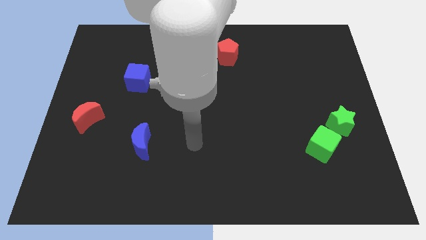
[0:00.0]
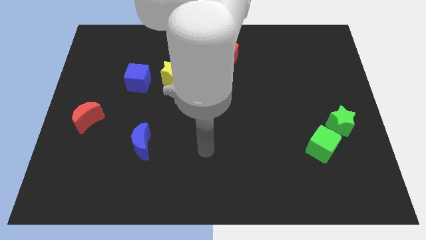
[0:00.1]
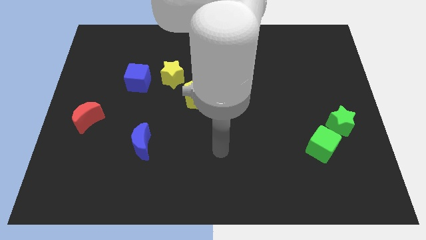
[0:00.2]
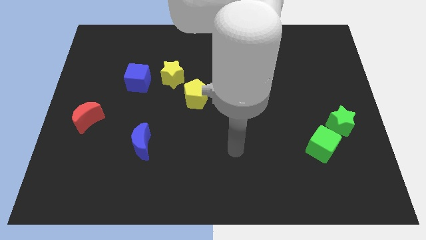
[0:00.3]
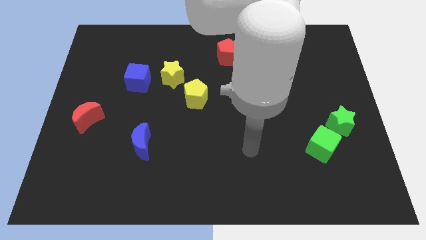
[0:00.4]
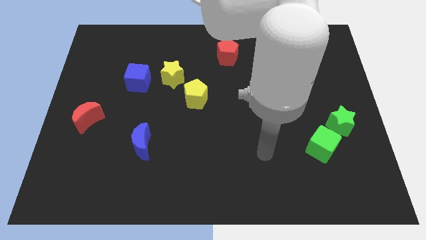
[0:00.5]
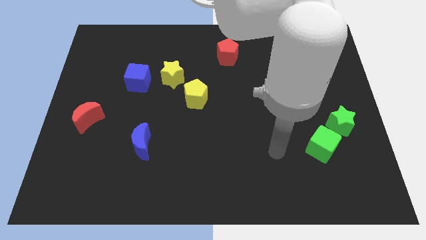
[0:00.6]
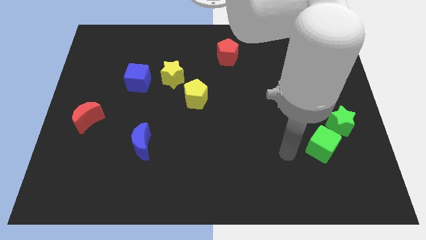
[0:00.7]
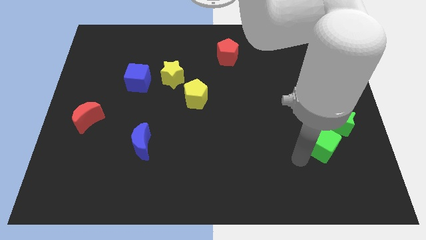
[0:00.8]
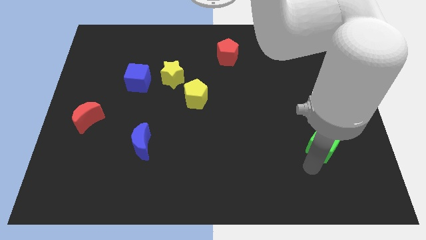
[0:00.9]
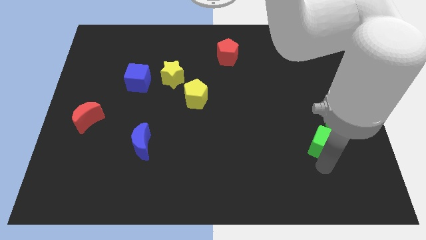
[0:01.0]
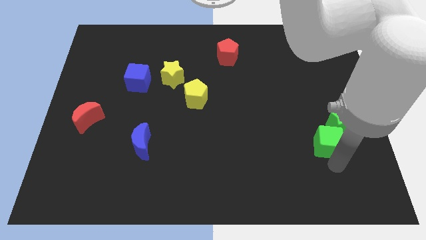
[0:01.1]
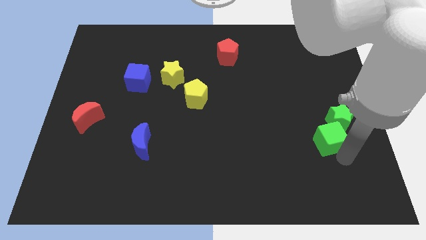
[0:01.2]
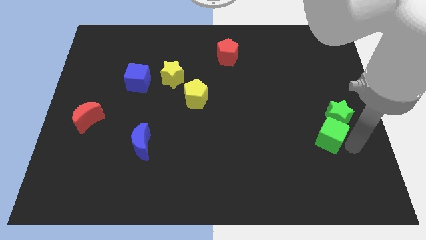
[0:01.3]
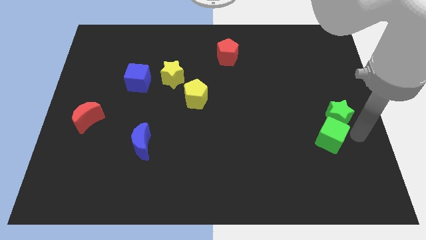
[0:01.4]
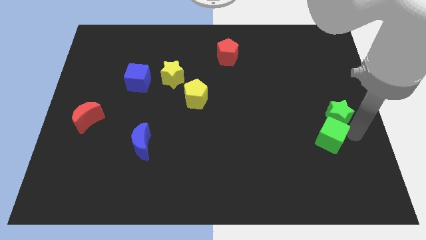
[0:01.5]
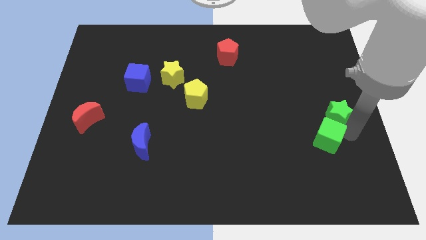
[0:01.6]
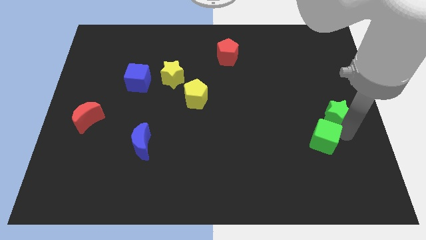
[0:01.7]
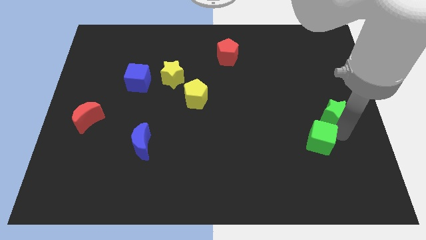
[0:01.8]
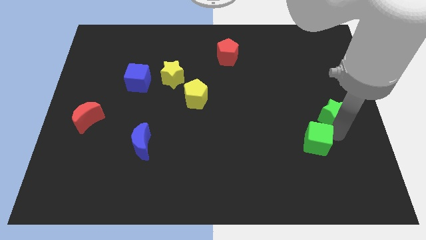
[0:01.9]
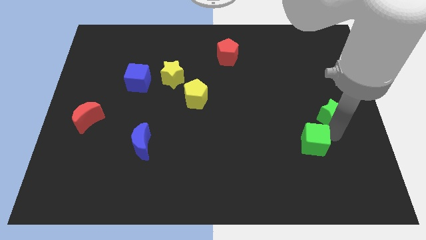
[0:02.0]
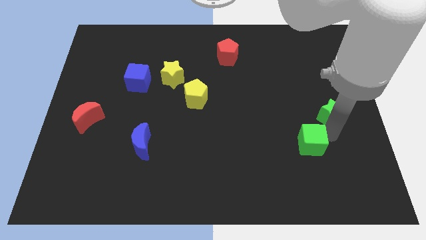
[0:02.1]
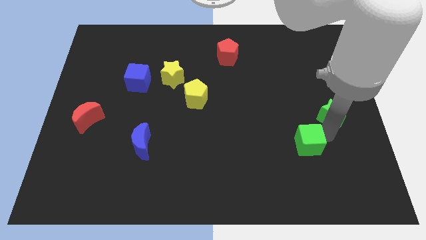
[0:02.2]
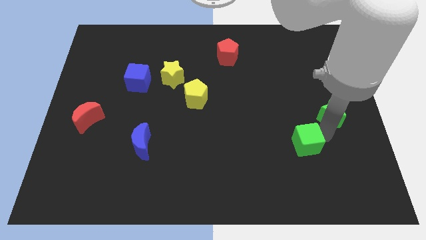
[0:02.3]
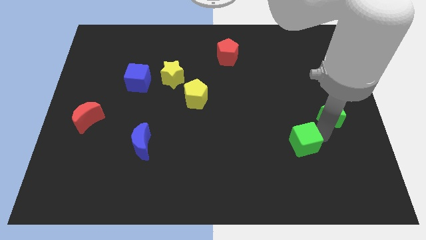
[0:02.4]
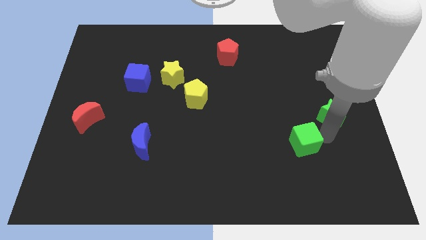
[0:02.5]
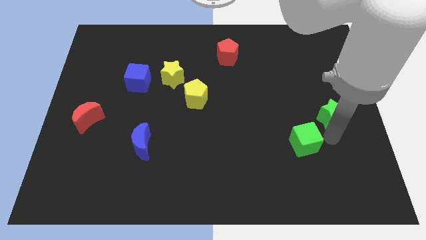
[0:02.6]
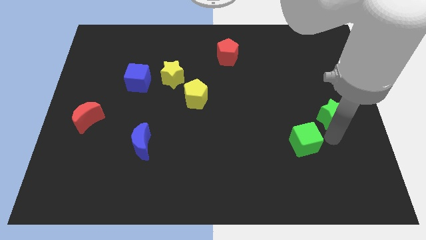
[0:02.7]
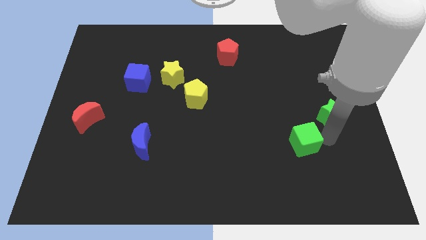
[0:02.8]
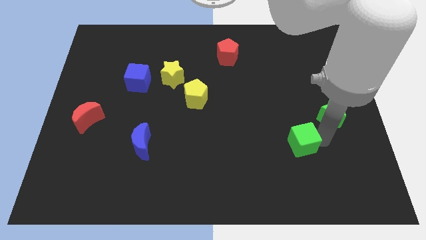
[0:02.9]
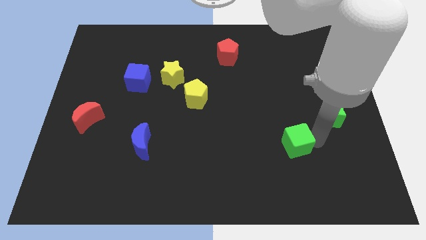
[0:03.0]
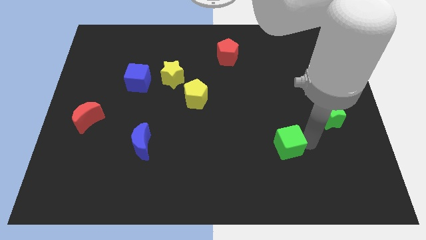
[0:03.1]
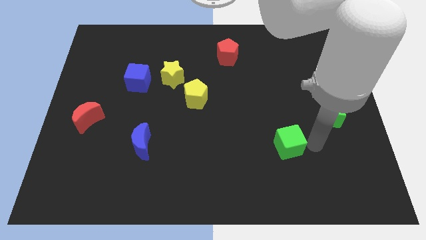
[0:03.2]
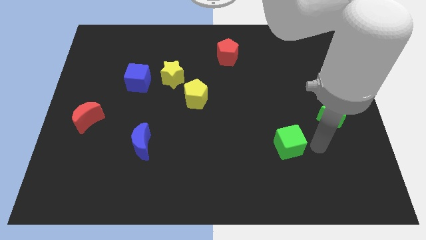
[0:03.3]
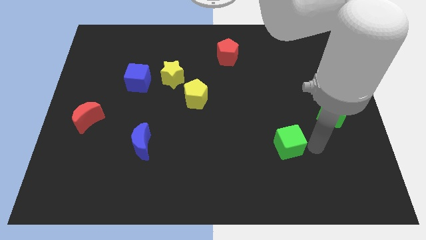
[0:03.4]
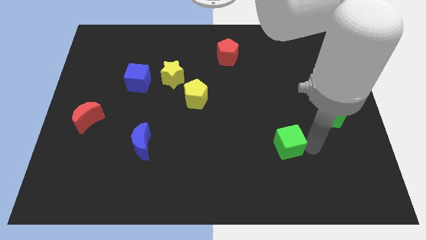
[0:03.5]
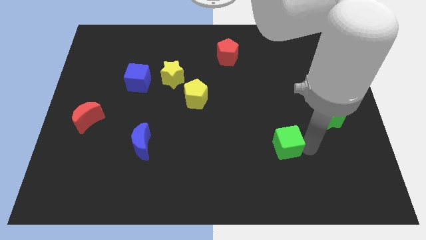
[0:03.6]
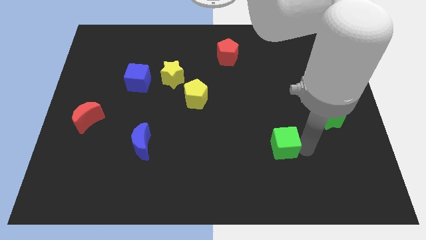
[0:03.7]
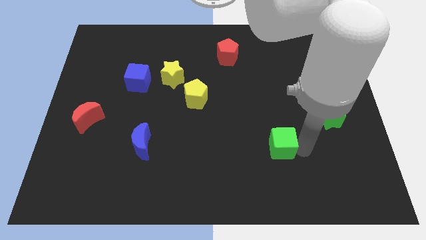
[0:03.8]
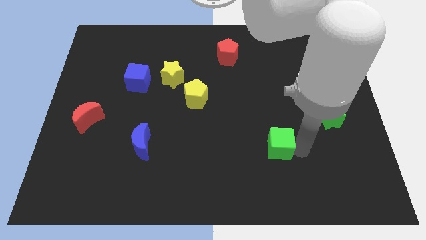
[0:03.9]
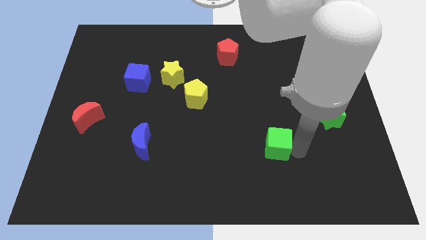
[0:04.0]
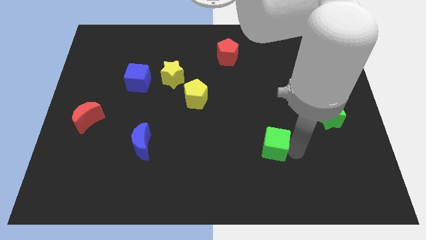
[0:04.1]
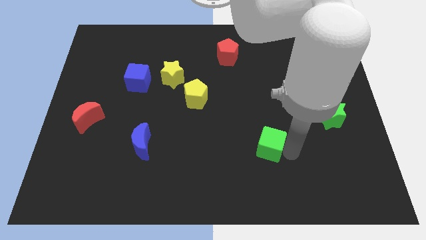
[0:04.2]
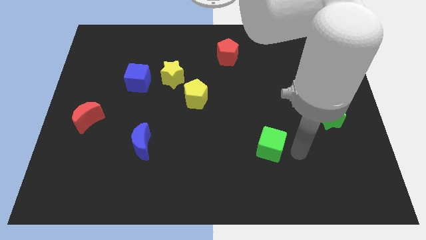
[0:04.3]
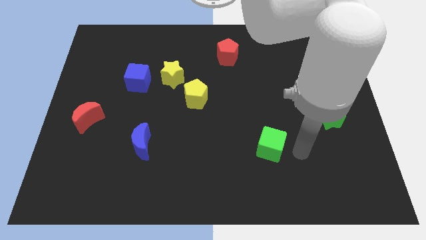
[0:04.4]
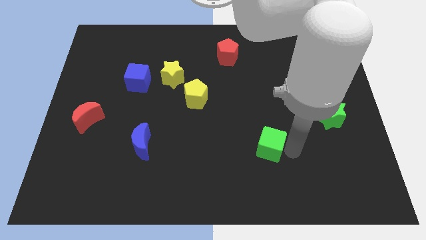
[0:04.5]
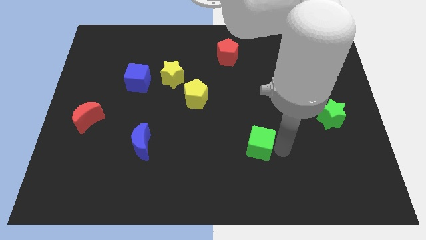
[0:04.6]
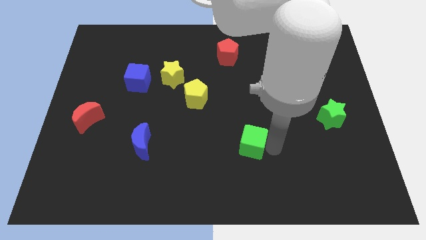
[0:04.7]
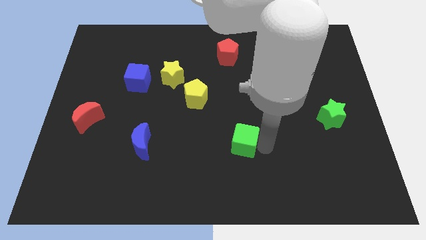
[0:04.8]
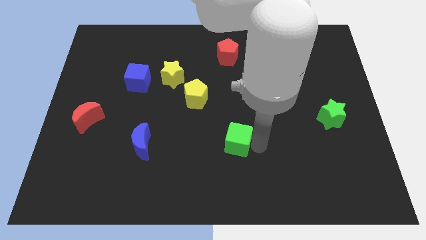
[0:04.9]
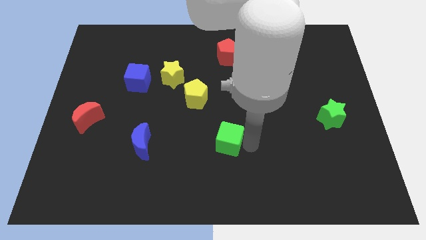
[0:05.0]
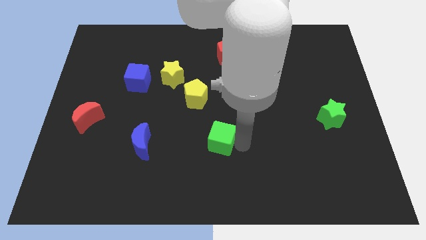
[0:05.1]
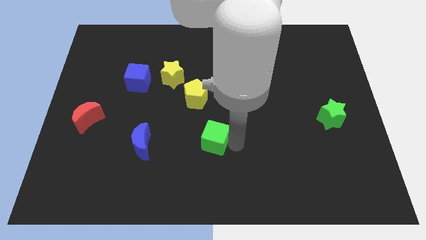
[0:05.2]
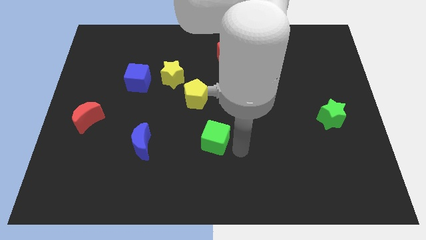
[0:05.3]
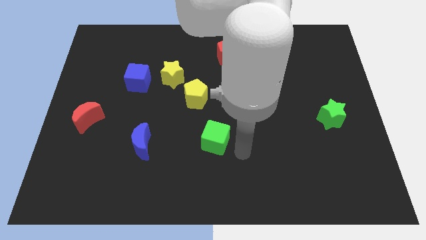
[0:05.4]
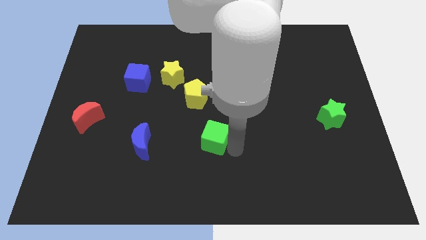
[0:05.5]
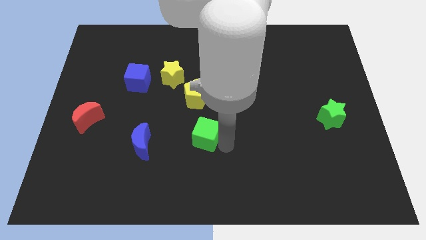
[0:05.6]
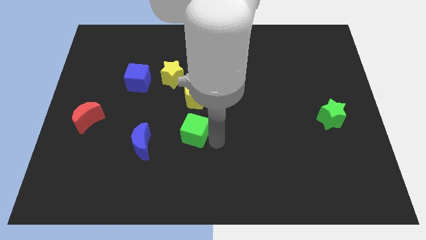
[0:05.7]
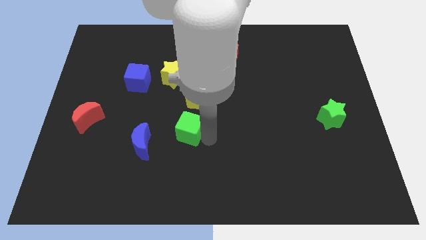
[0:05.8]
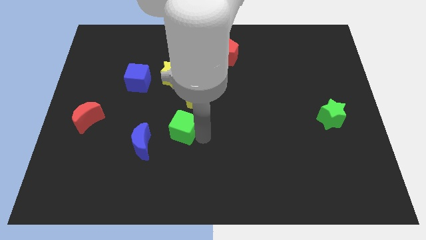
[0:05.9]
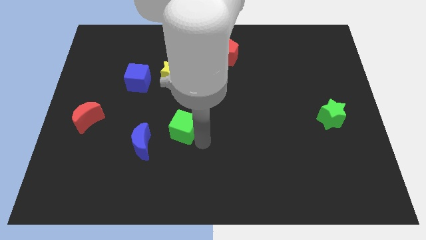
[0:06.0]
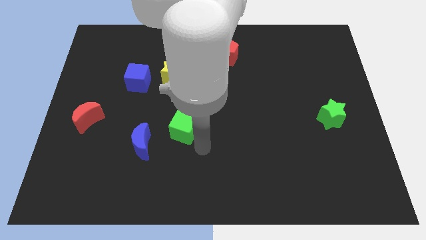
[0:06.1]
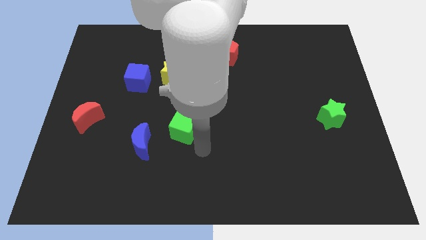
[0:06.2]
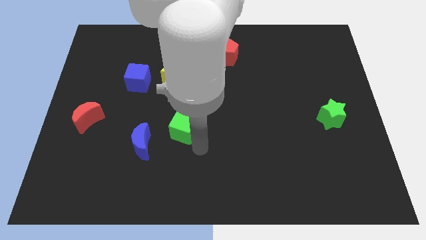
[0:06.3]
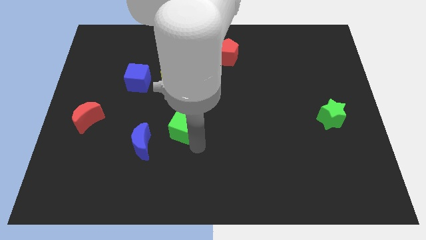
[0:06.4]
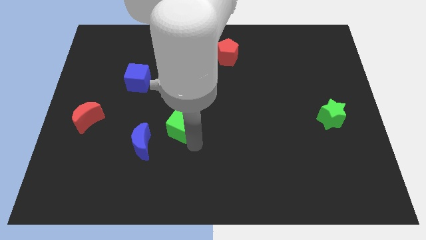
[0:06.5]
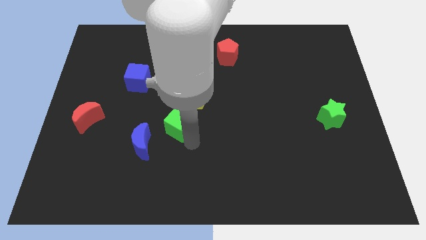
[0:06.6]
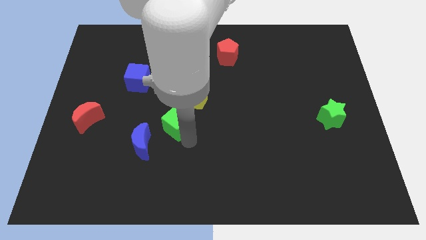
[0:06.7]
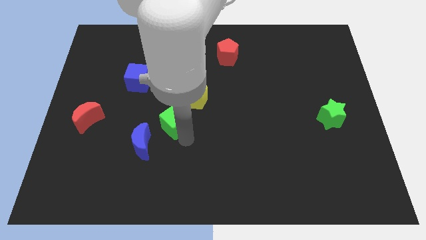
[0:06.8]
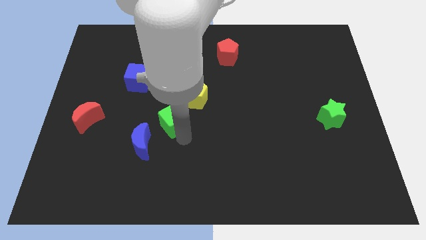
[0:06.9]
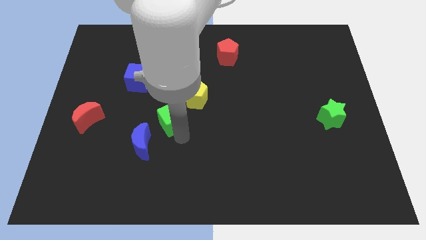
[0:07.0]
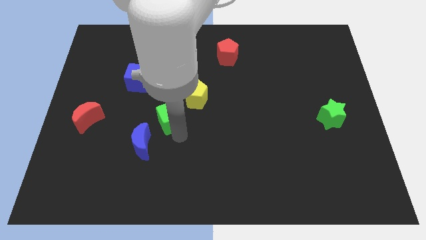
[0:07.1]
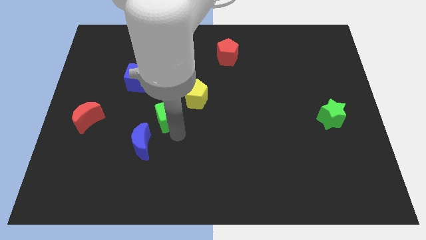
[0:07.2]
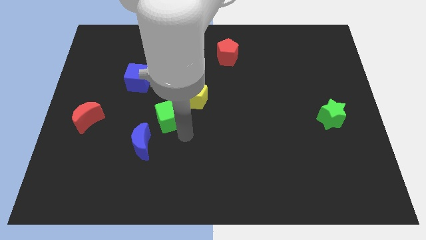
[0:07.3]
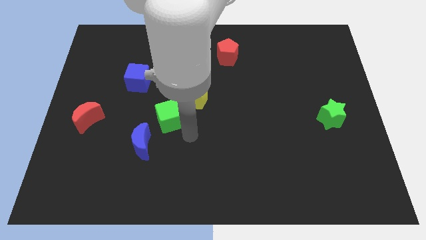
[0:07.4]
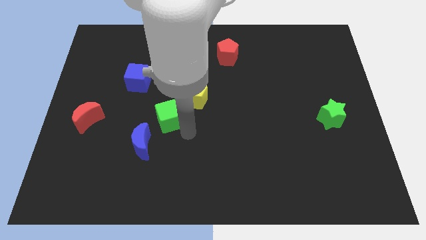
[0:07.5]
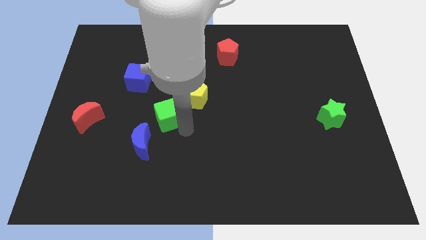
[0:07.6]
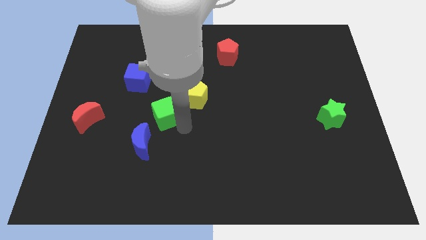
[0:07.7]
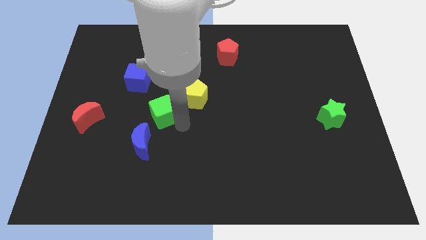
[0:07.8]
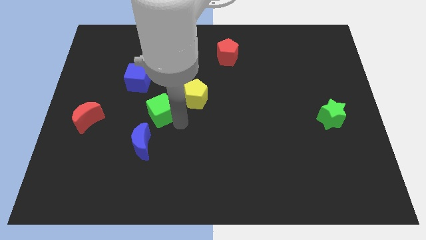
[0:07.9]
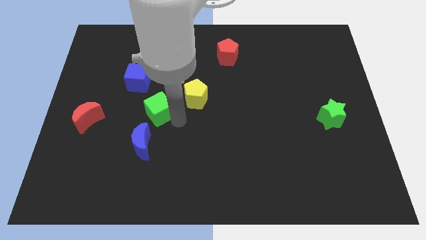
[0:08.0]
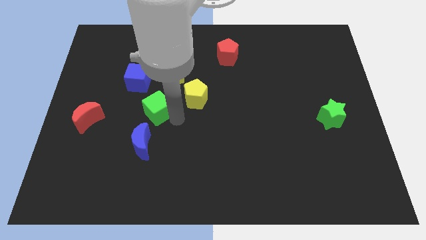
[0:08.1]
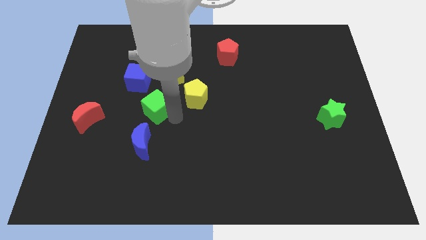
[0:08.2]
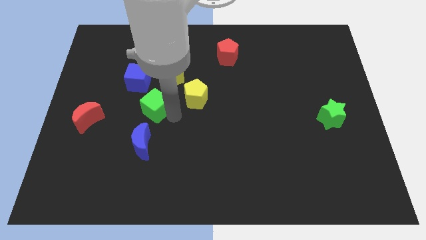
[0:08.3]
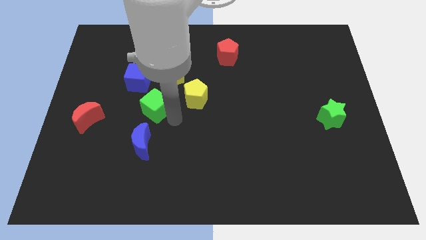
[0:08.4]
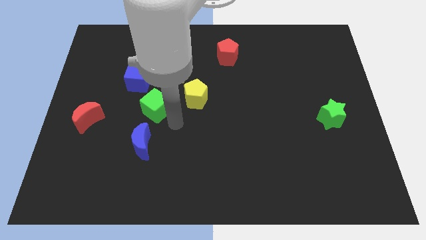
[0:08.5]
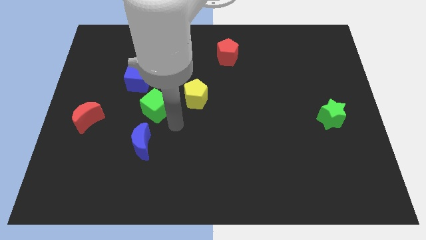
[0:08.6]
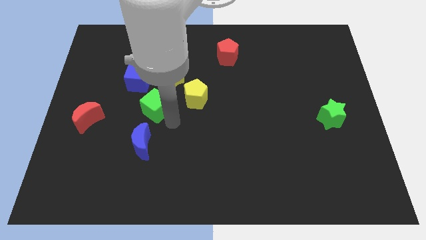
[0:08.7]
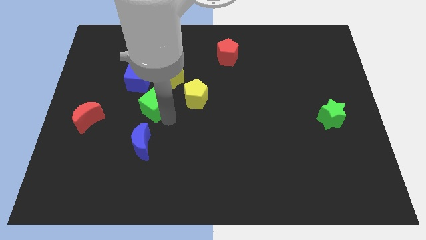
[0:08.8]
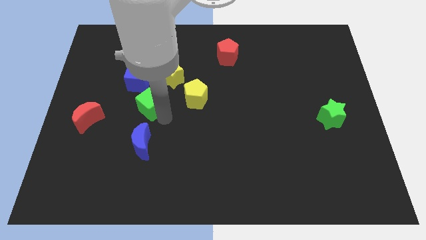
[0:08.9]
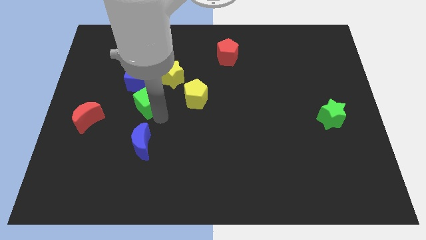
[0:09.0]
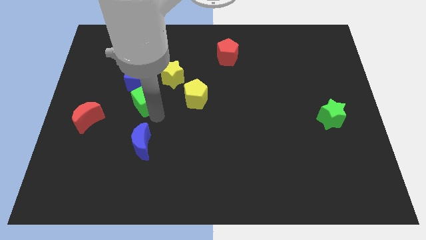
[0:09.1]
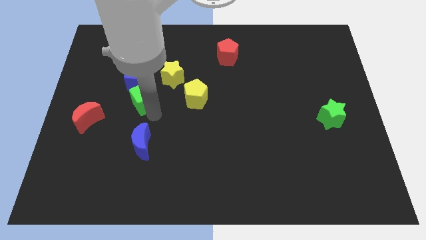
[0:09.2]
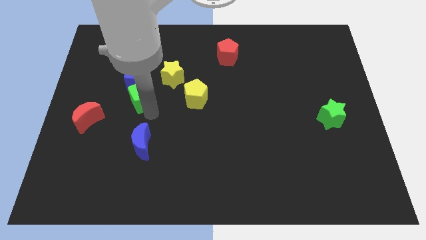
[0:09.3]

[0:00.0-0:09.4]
move the green cube to the blue cube
